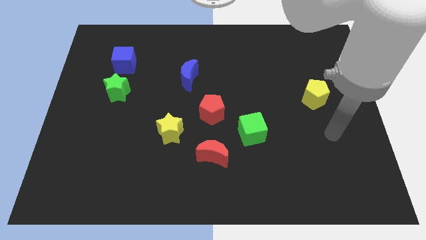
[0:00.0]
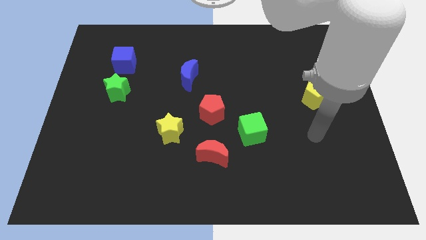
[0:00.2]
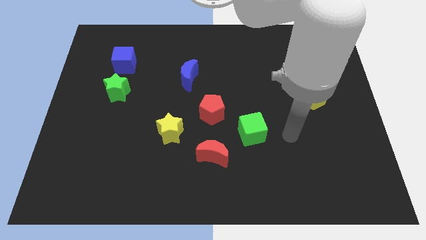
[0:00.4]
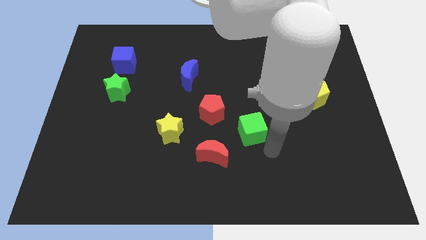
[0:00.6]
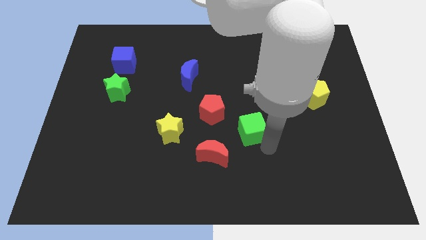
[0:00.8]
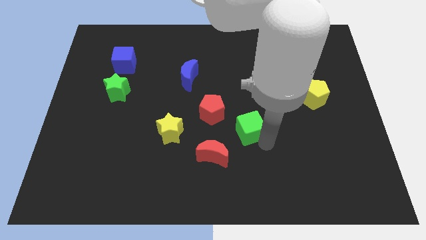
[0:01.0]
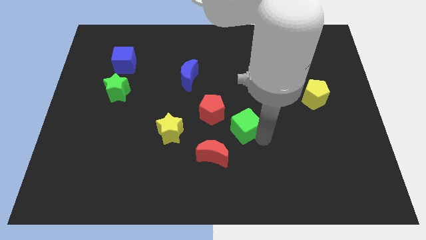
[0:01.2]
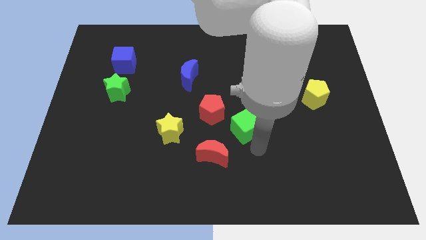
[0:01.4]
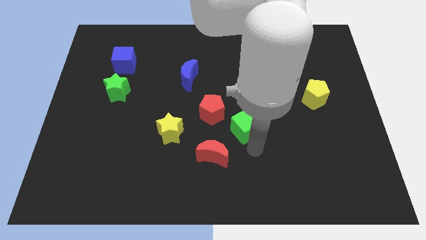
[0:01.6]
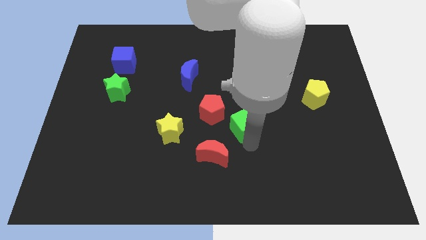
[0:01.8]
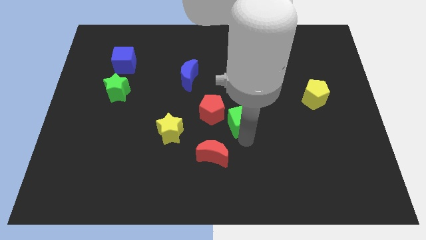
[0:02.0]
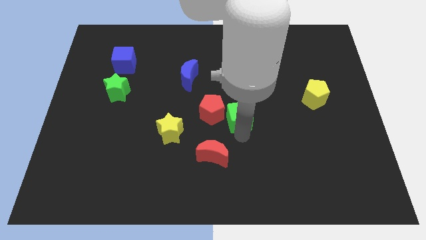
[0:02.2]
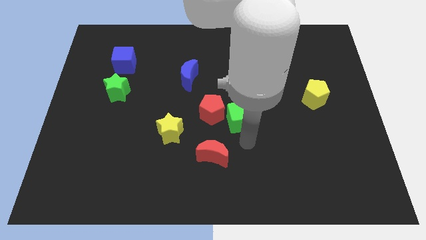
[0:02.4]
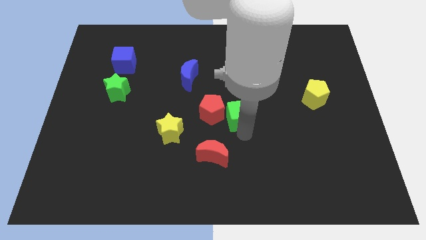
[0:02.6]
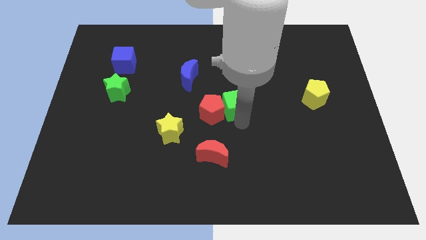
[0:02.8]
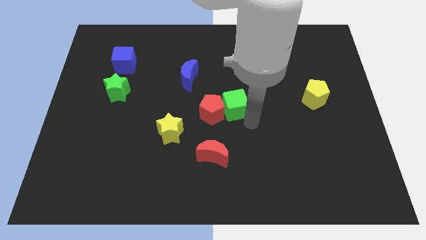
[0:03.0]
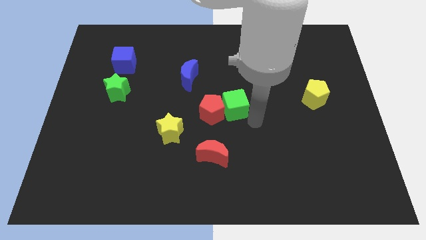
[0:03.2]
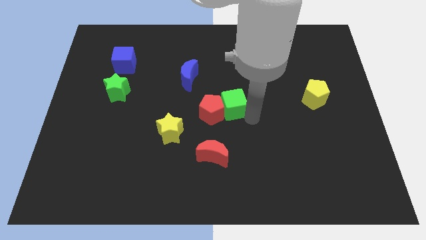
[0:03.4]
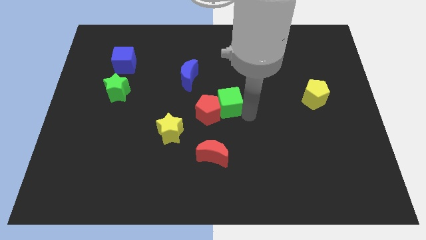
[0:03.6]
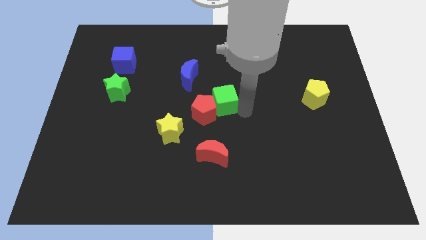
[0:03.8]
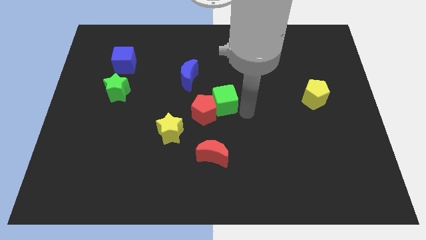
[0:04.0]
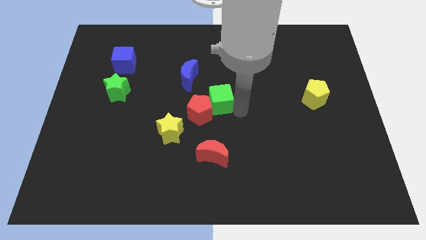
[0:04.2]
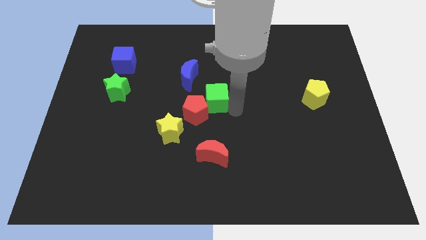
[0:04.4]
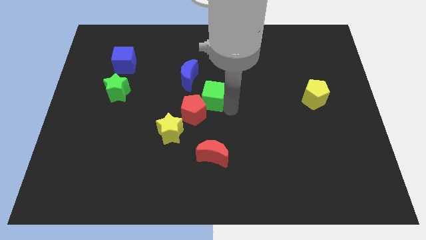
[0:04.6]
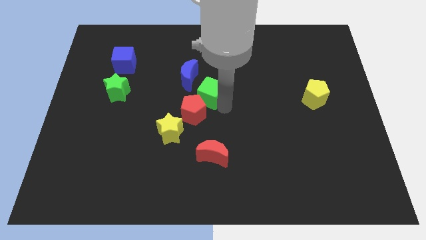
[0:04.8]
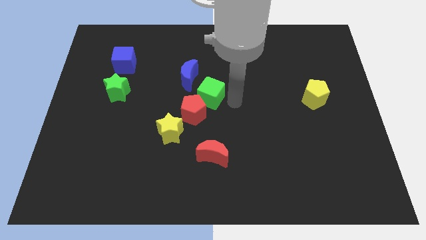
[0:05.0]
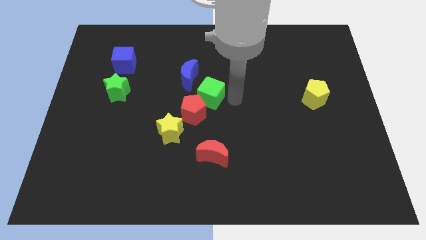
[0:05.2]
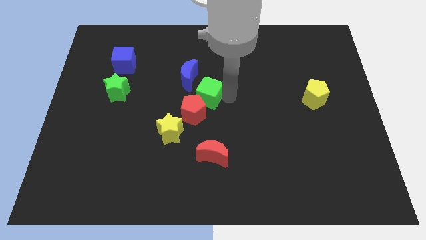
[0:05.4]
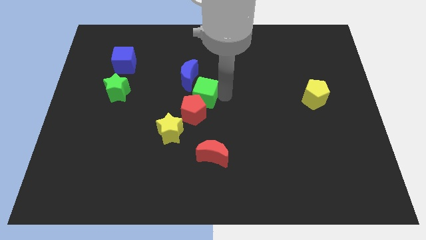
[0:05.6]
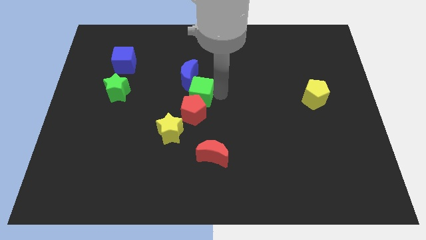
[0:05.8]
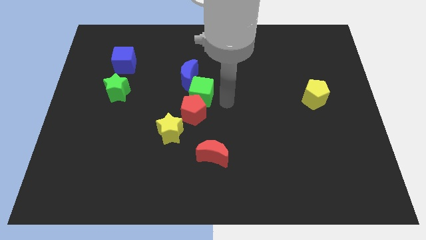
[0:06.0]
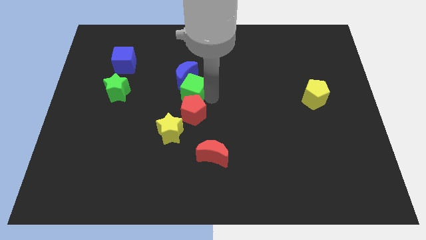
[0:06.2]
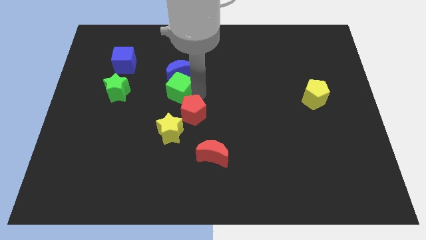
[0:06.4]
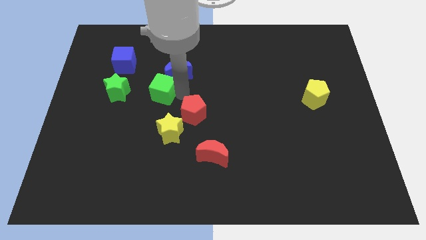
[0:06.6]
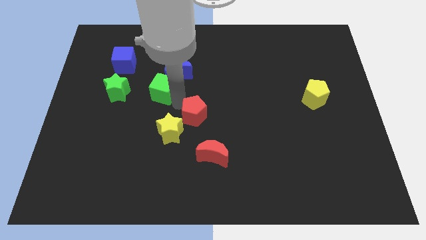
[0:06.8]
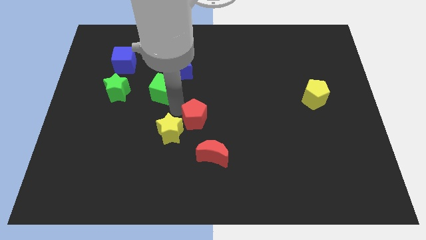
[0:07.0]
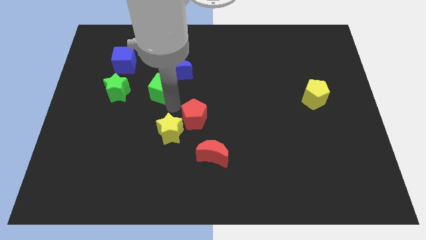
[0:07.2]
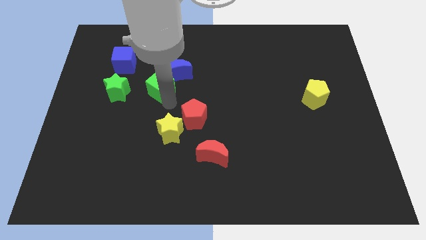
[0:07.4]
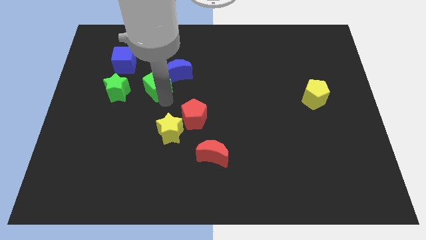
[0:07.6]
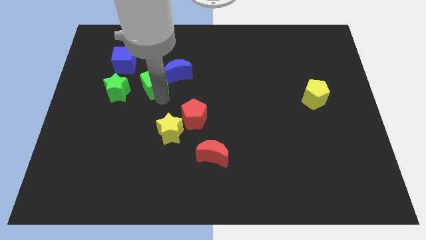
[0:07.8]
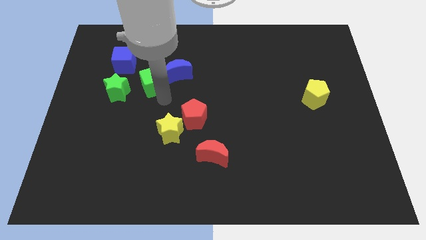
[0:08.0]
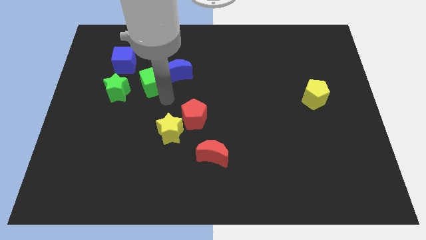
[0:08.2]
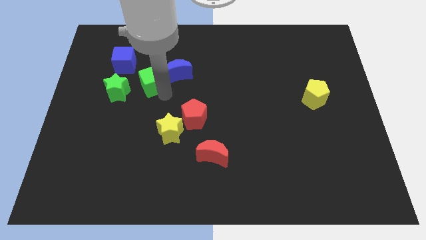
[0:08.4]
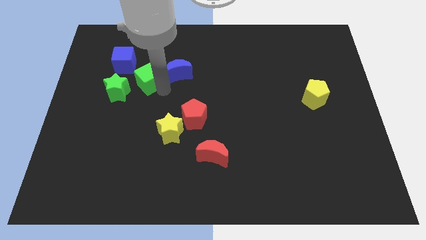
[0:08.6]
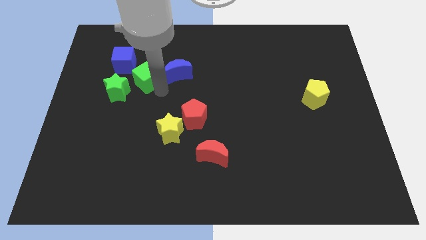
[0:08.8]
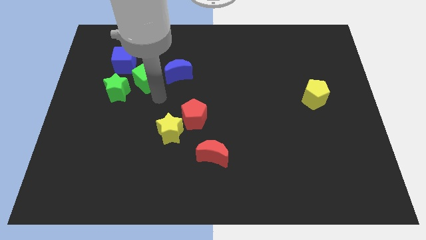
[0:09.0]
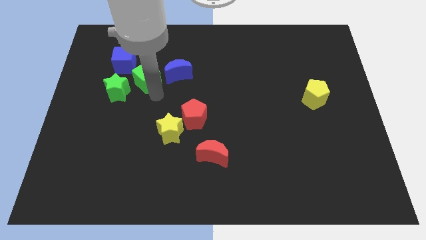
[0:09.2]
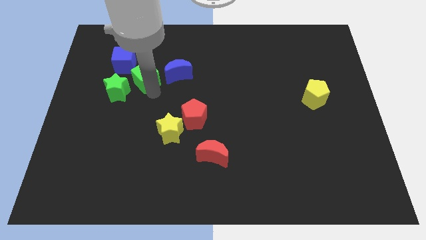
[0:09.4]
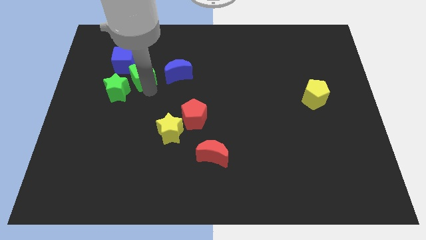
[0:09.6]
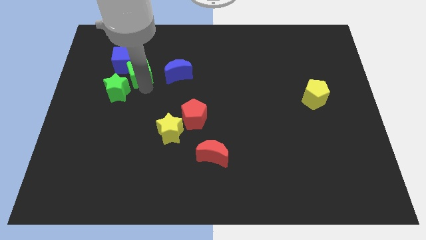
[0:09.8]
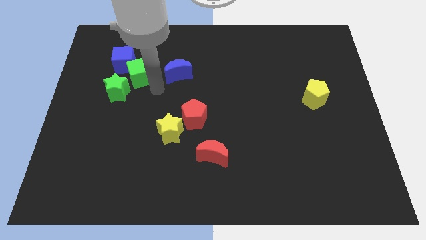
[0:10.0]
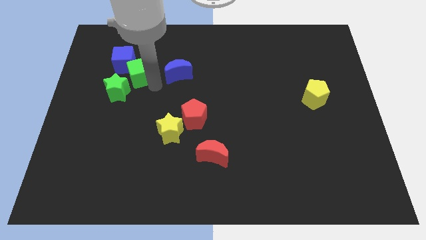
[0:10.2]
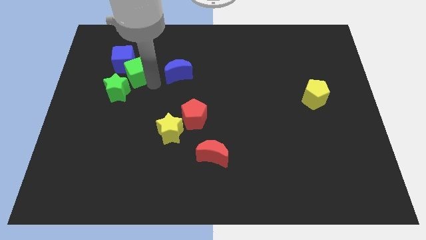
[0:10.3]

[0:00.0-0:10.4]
push the green cube next to the blue cube

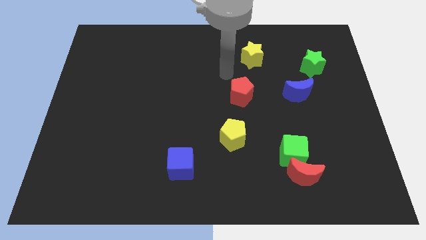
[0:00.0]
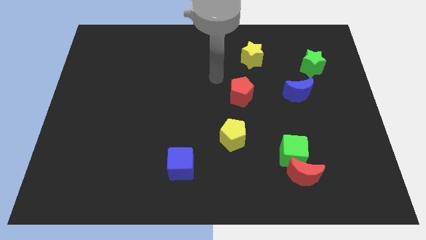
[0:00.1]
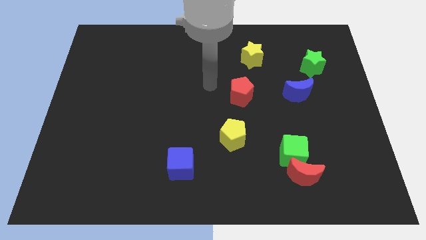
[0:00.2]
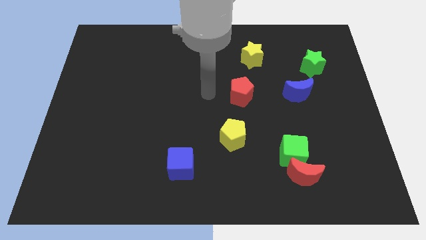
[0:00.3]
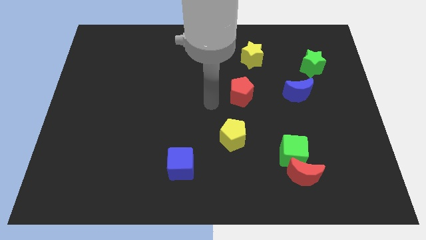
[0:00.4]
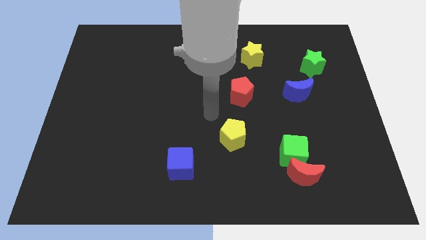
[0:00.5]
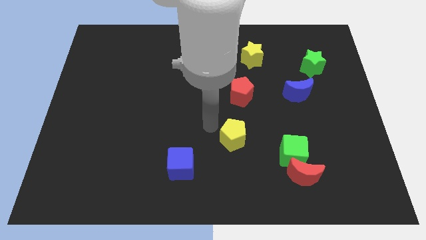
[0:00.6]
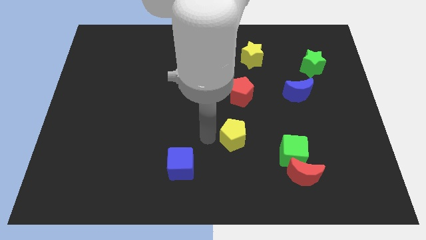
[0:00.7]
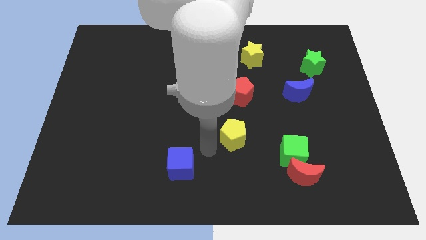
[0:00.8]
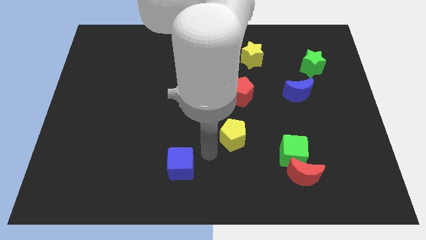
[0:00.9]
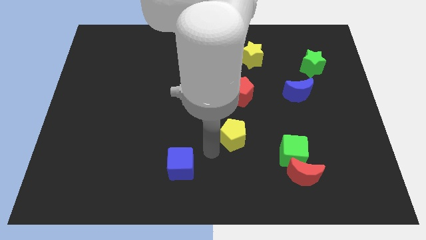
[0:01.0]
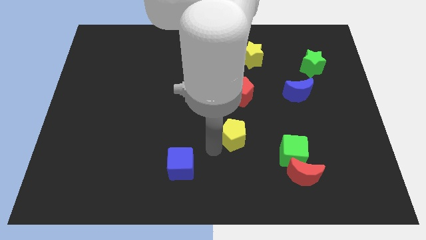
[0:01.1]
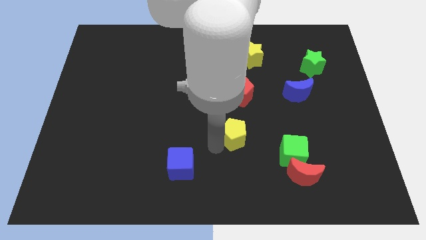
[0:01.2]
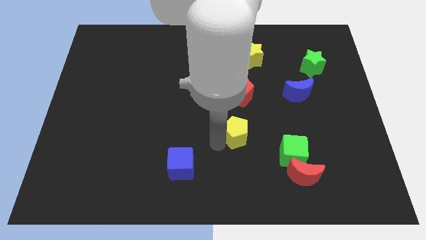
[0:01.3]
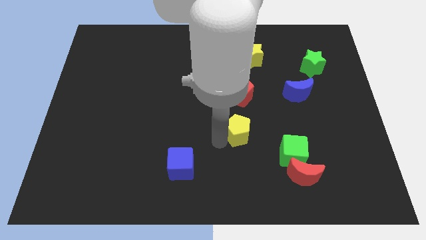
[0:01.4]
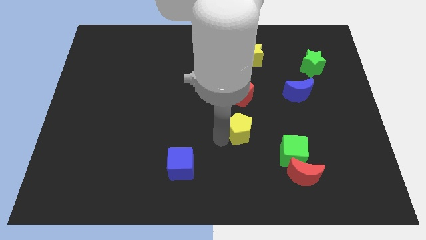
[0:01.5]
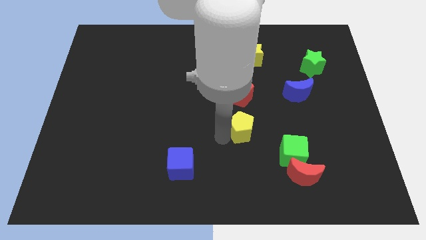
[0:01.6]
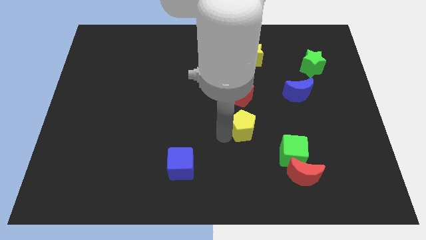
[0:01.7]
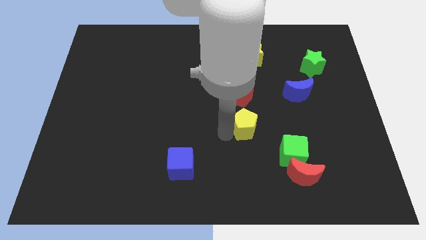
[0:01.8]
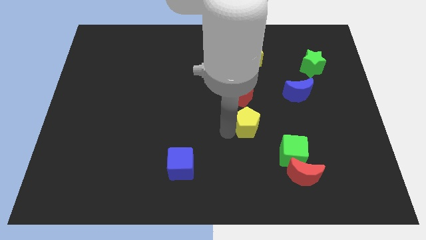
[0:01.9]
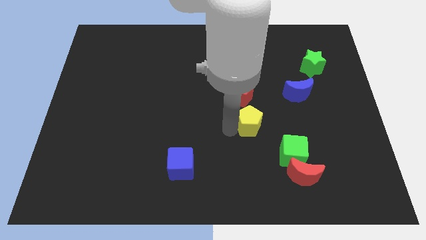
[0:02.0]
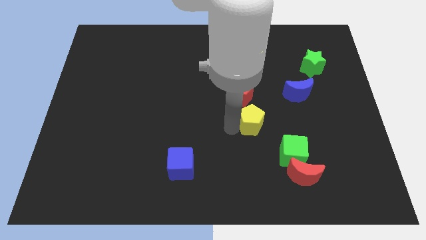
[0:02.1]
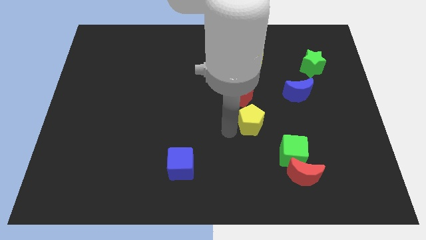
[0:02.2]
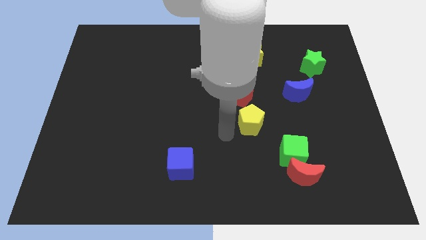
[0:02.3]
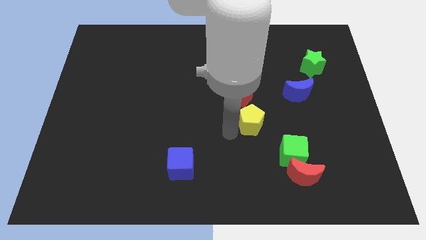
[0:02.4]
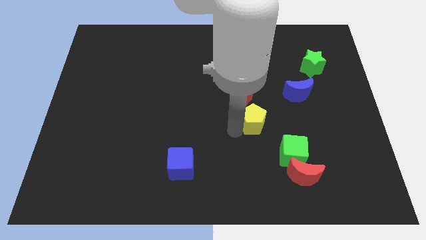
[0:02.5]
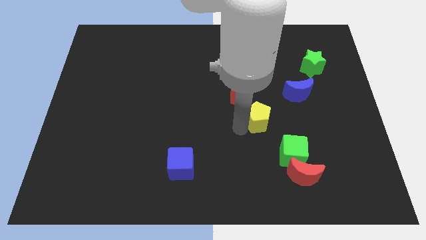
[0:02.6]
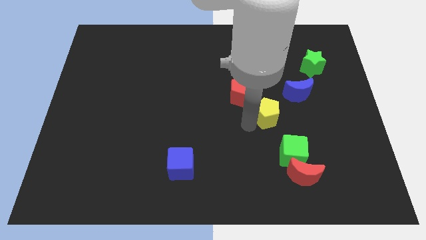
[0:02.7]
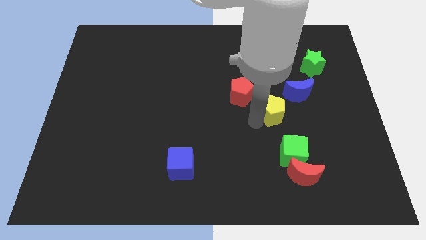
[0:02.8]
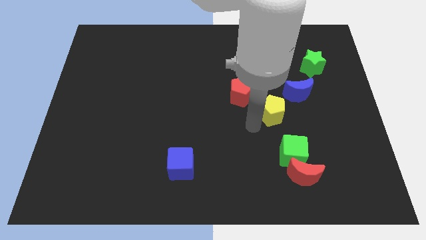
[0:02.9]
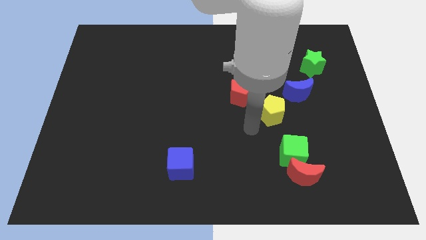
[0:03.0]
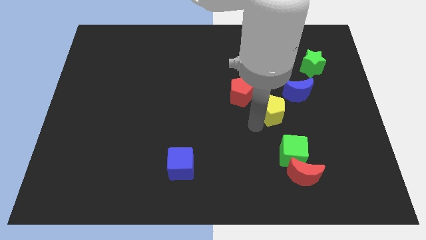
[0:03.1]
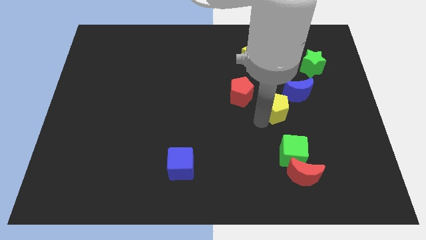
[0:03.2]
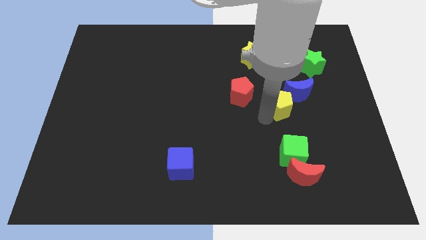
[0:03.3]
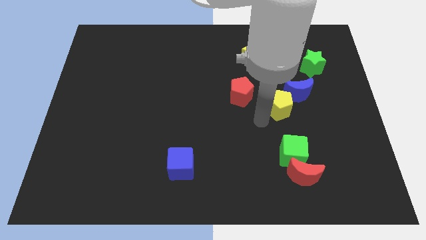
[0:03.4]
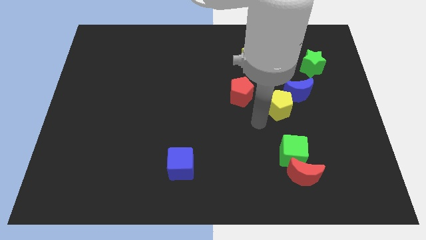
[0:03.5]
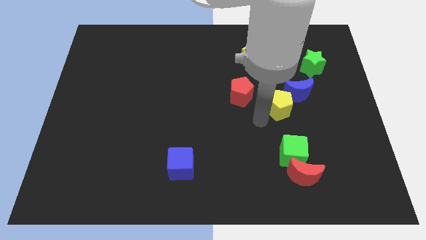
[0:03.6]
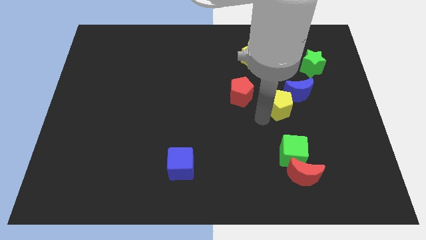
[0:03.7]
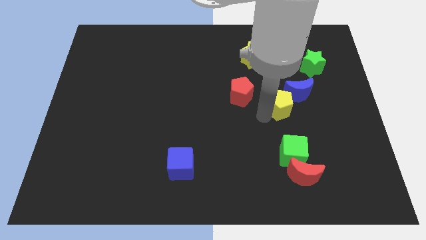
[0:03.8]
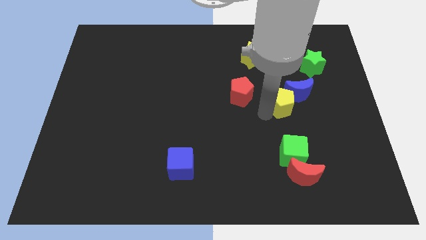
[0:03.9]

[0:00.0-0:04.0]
slide the yellow pentagon next to the blue moon
